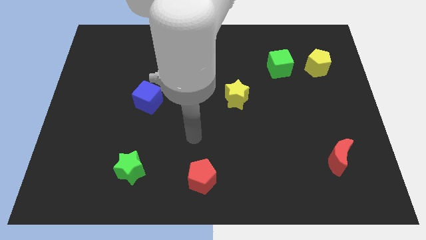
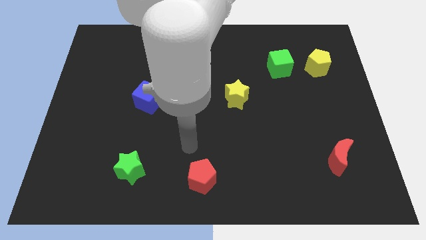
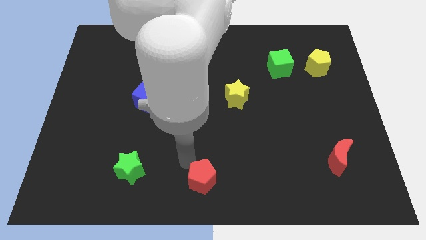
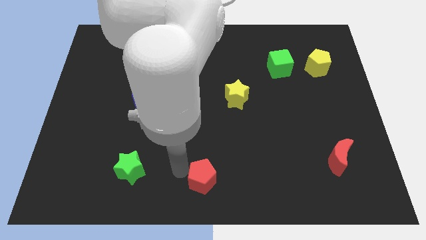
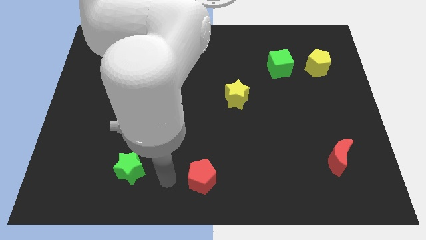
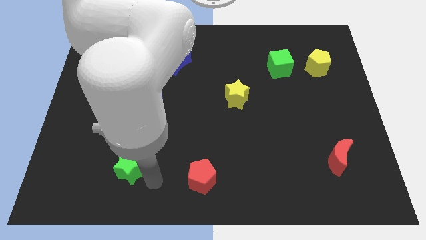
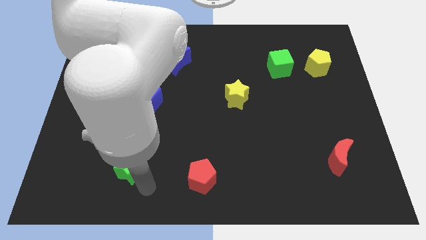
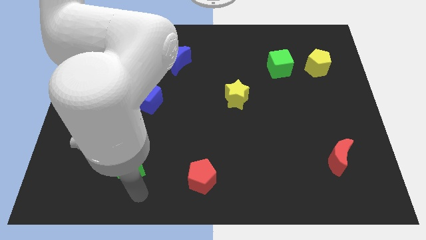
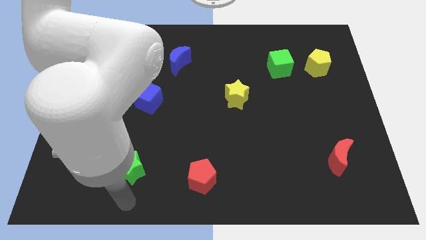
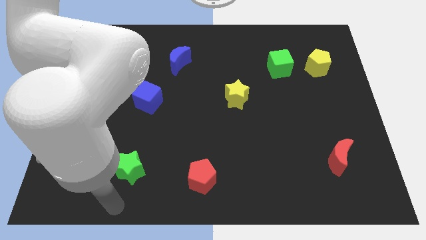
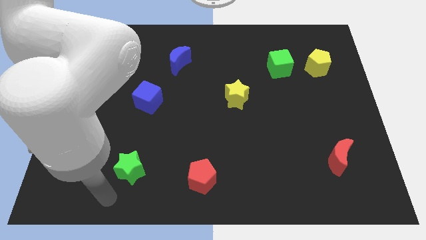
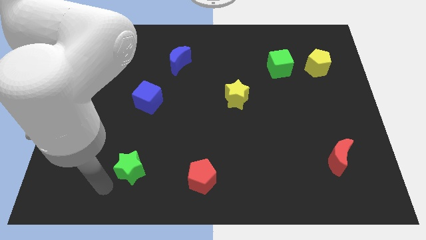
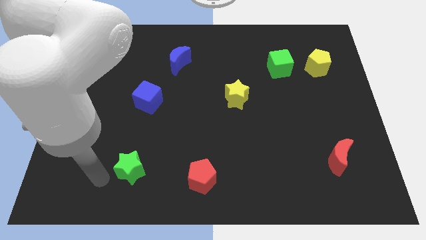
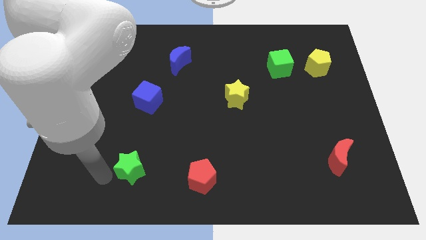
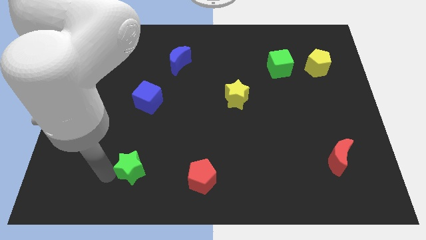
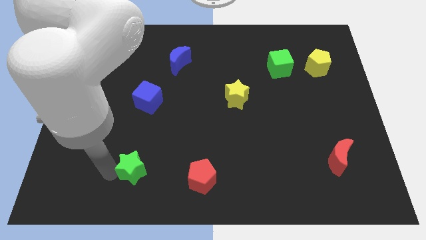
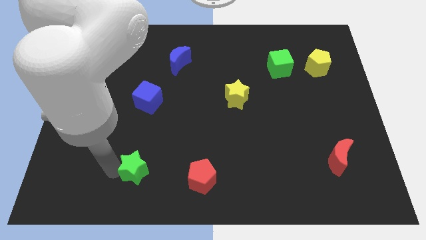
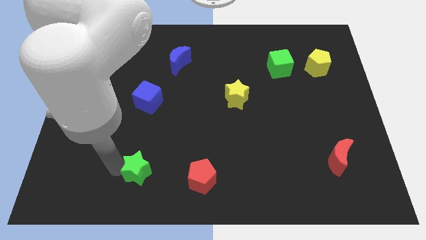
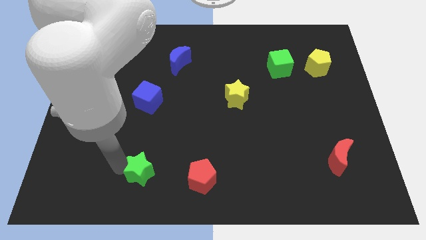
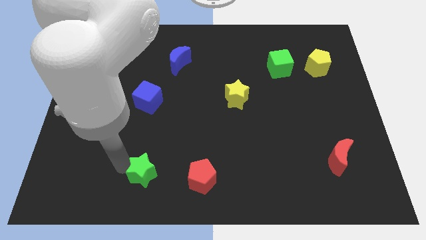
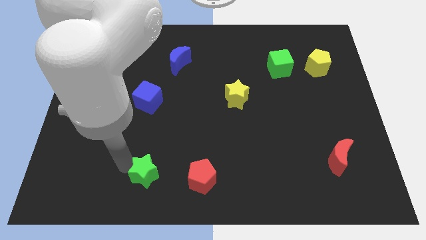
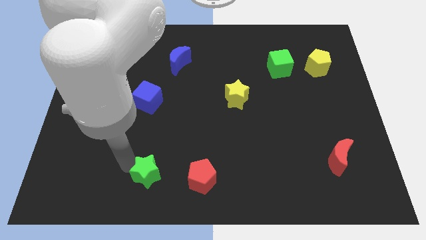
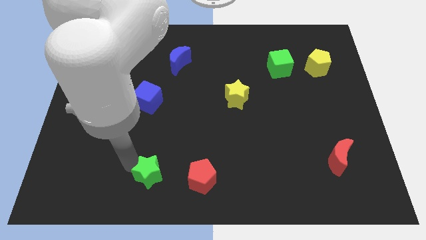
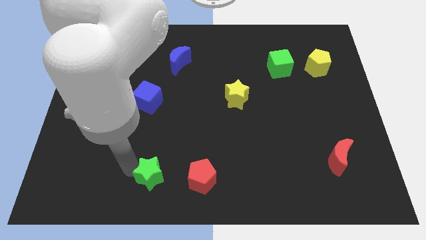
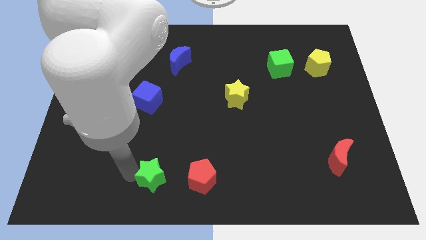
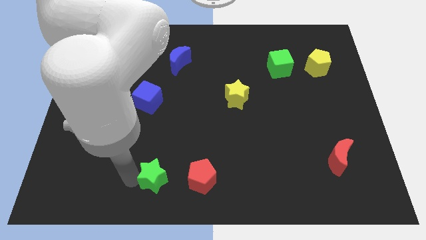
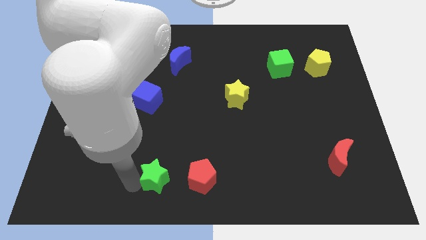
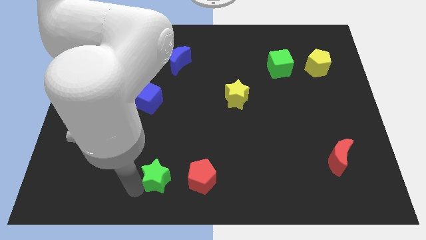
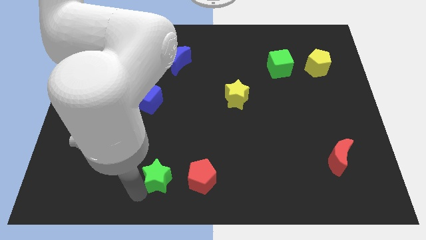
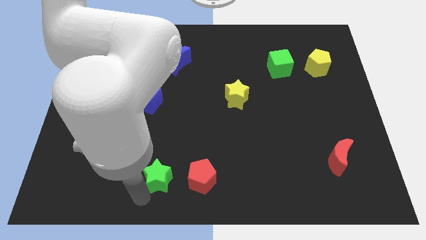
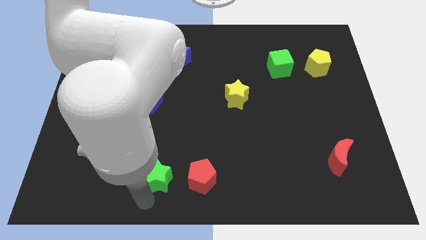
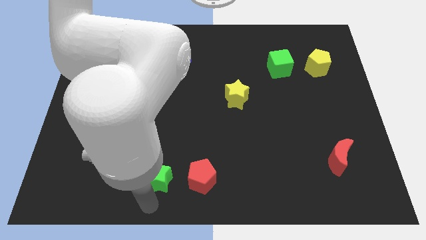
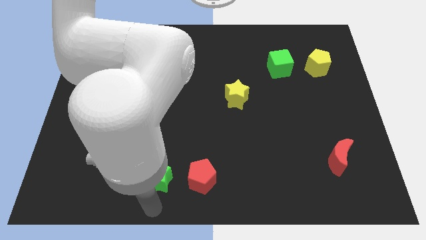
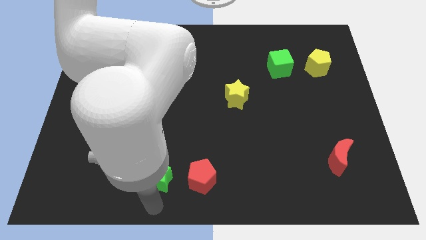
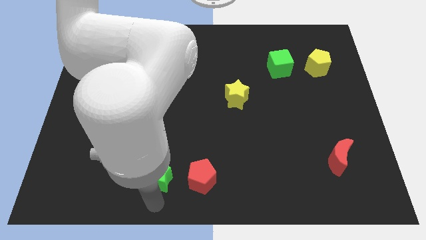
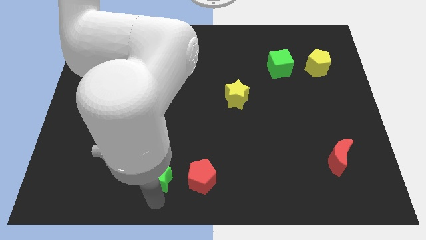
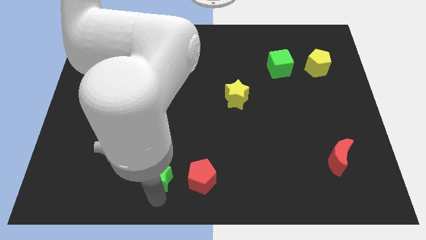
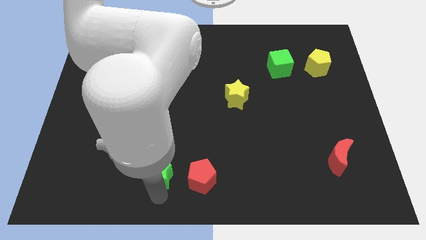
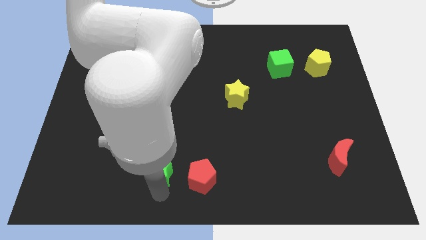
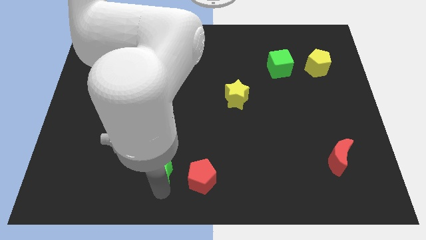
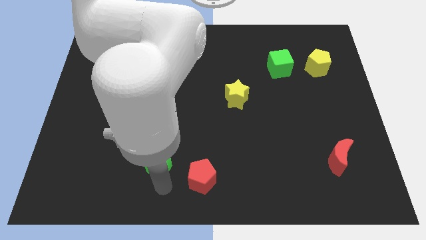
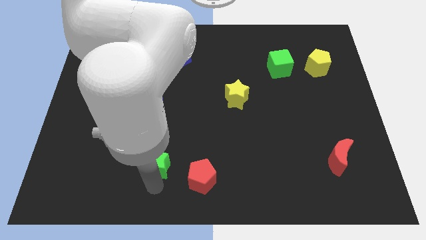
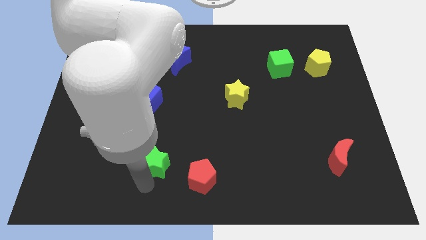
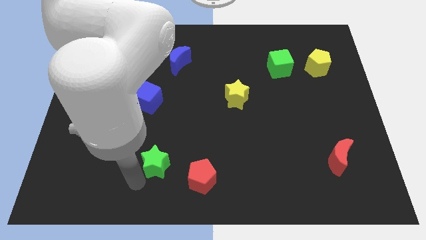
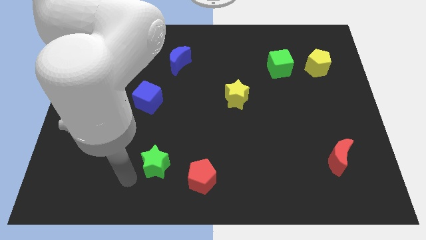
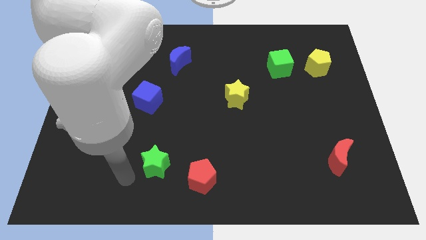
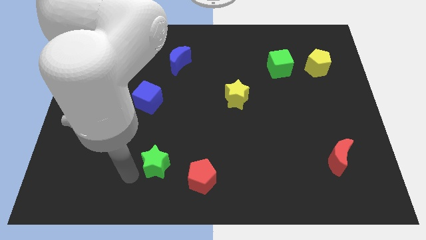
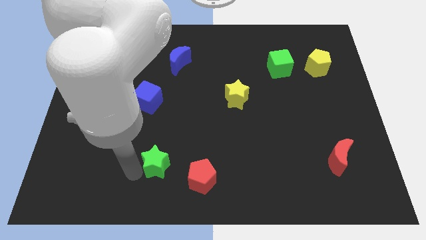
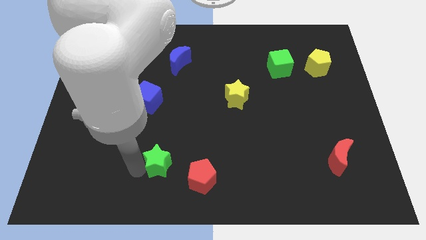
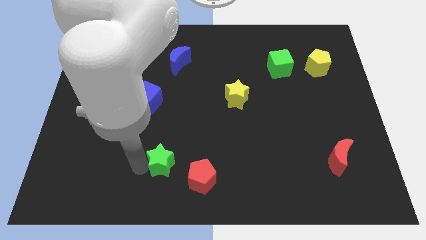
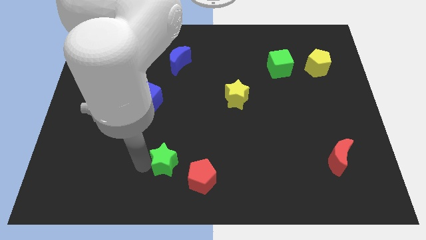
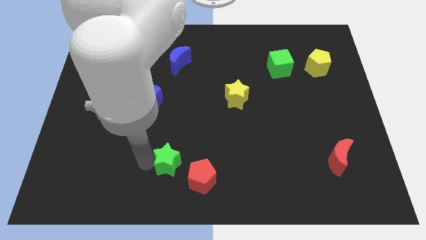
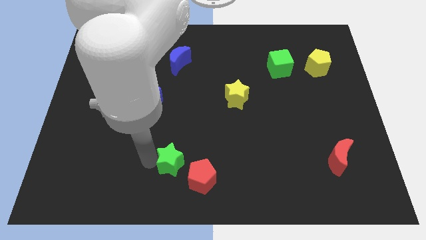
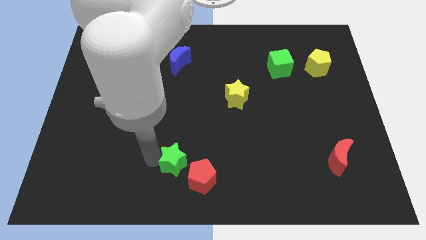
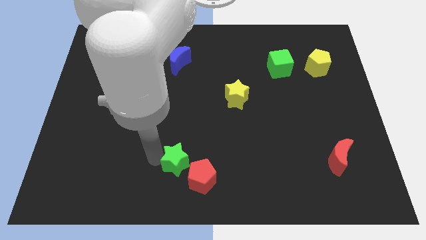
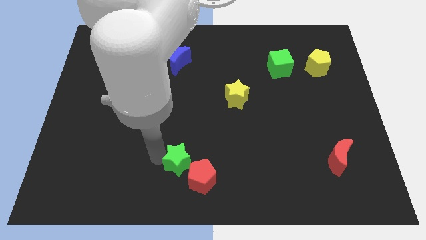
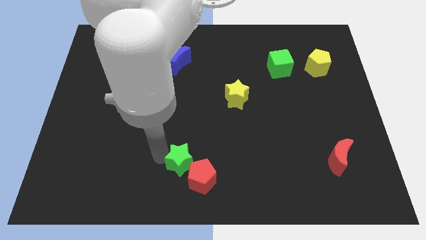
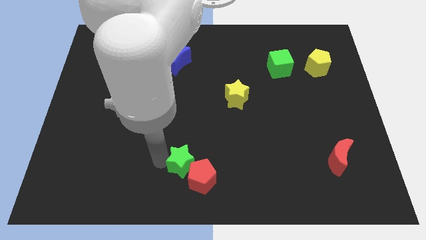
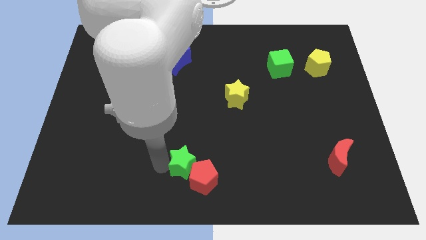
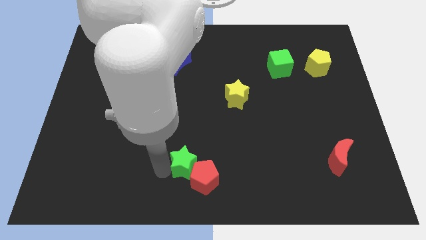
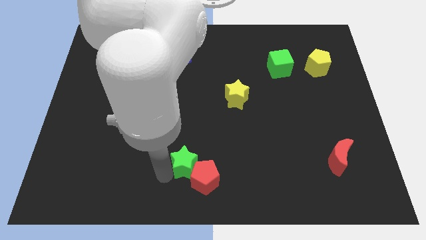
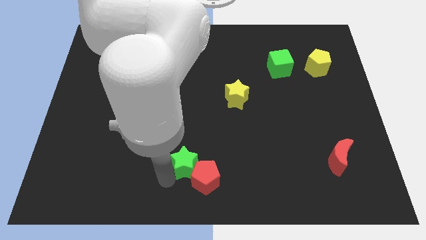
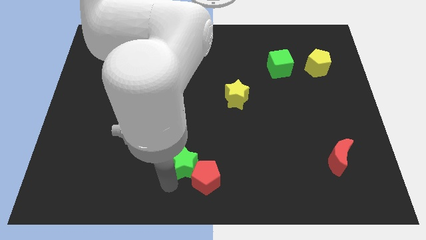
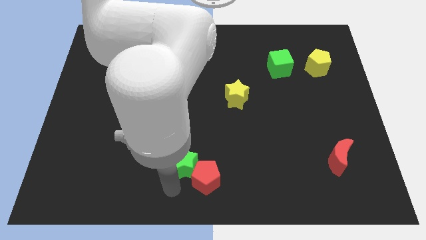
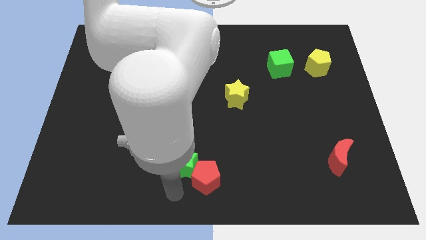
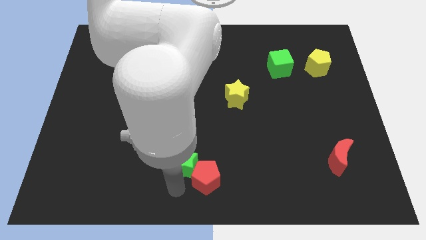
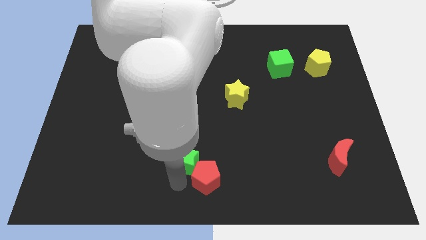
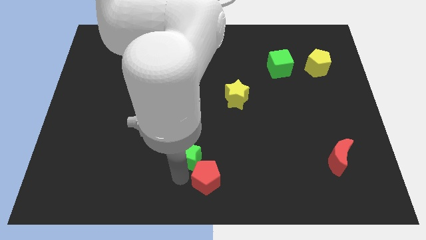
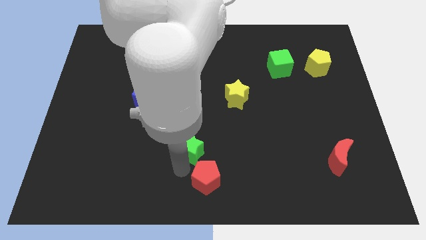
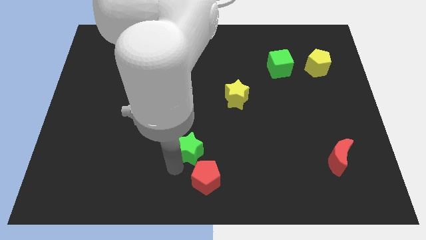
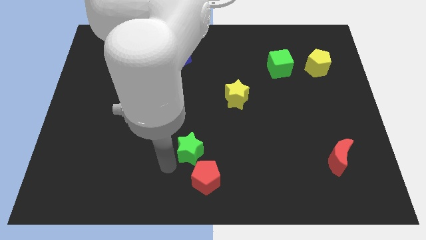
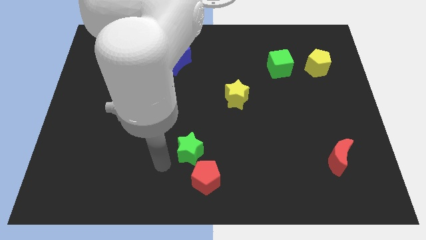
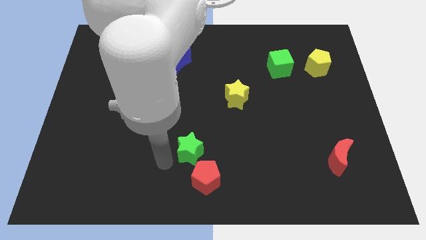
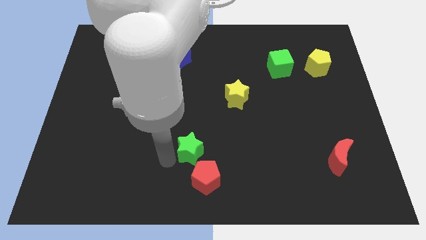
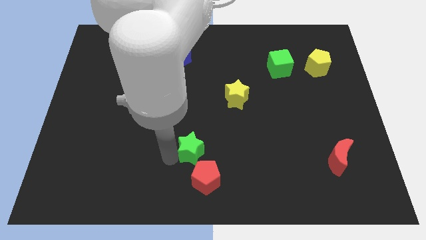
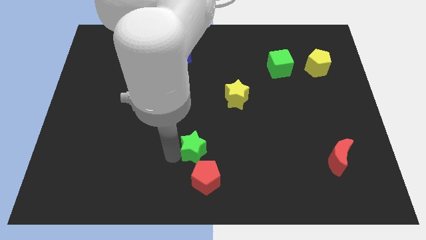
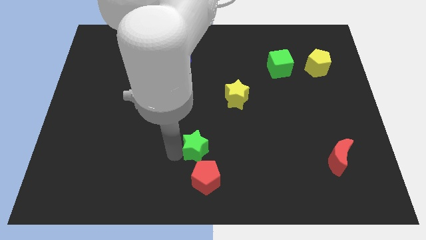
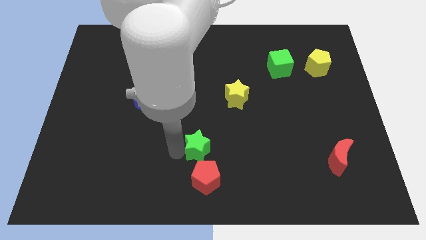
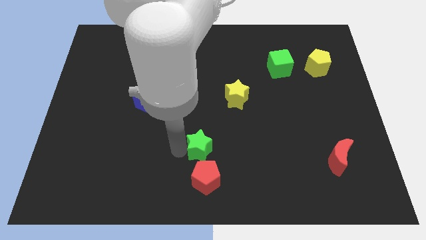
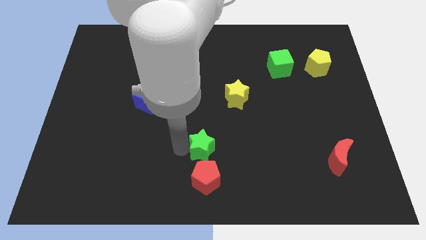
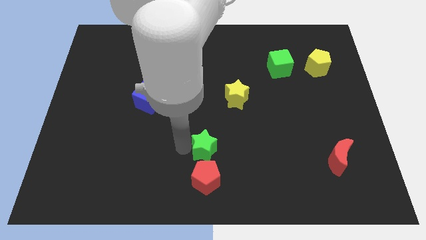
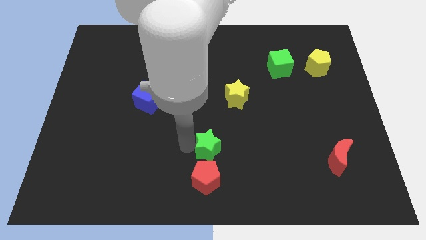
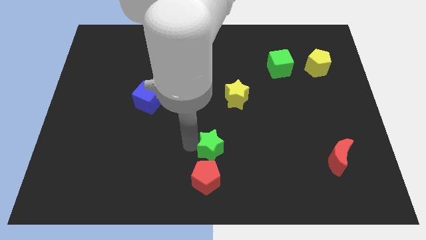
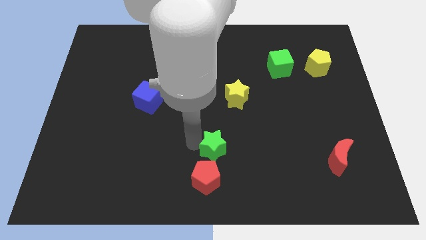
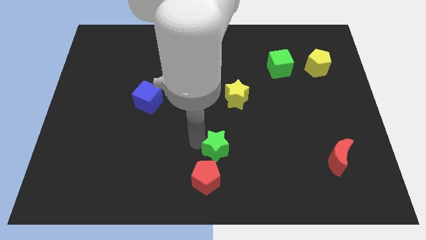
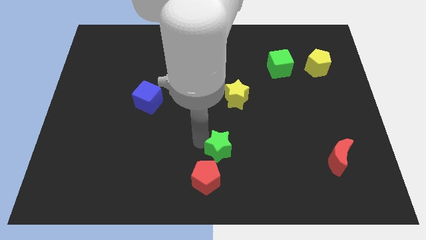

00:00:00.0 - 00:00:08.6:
put the green star below the yellow star
